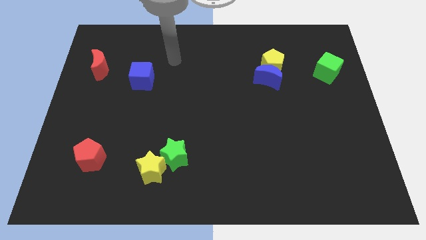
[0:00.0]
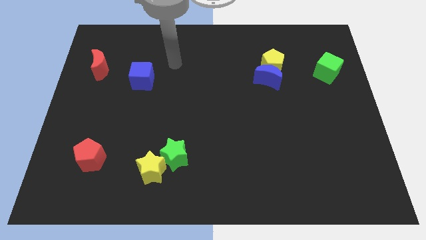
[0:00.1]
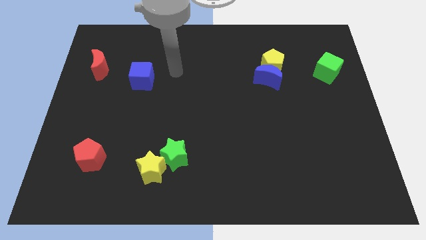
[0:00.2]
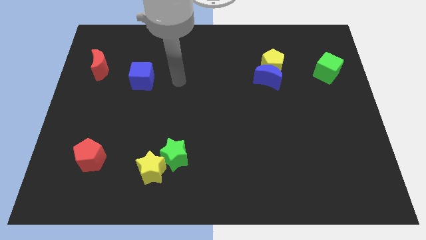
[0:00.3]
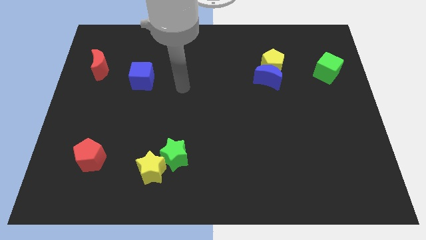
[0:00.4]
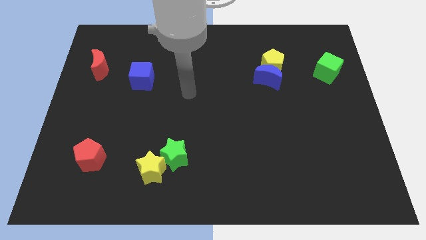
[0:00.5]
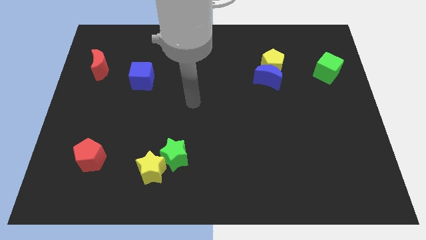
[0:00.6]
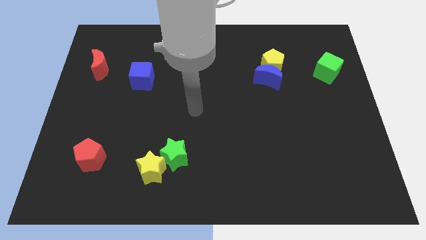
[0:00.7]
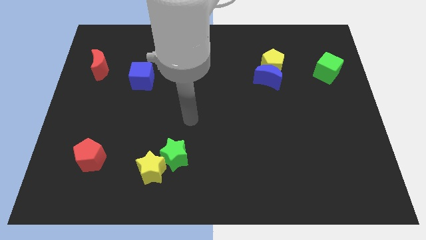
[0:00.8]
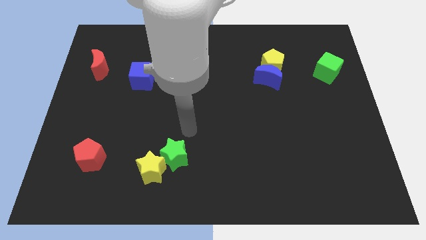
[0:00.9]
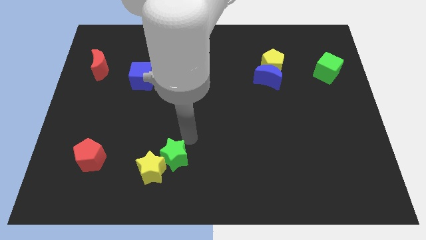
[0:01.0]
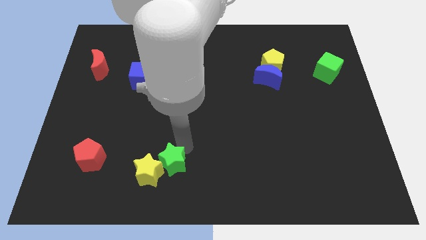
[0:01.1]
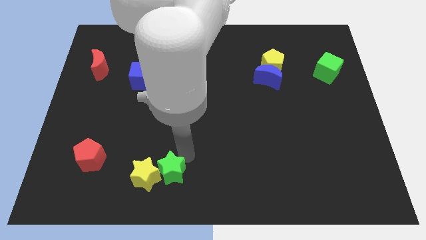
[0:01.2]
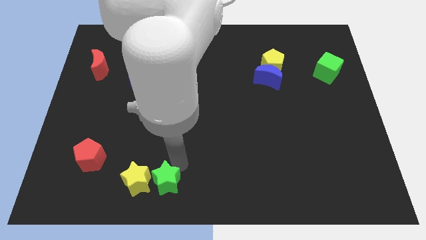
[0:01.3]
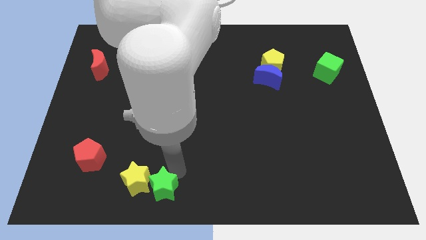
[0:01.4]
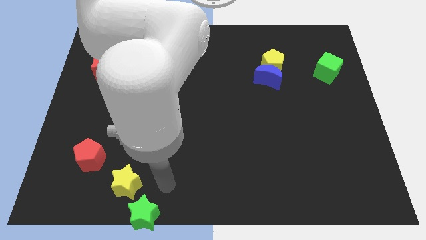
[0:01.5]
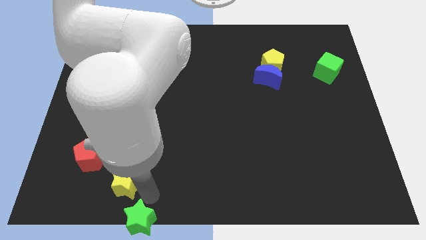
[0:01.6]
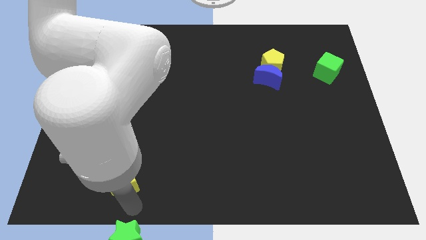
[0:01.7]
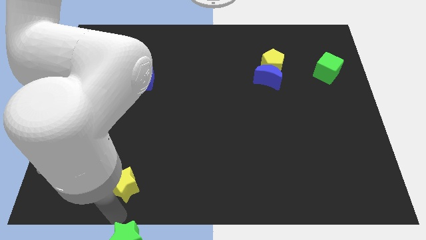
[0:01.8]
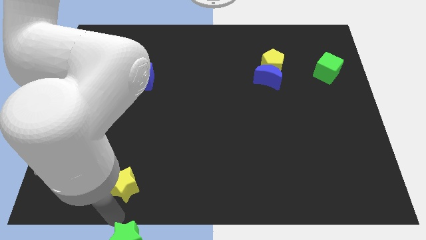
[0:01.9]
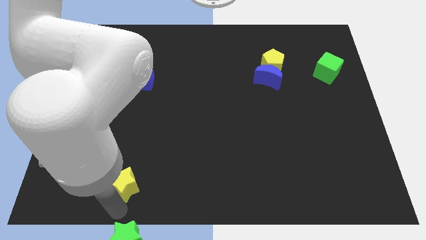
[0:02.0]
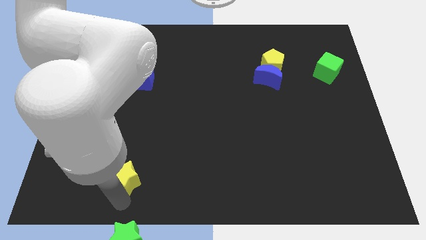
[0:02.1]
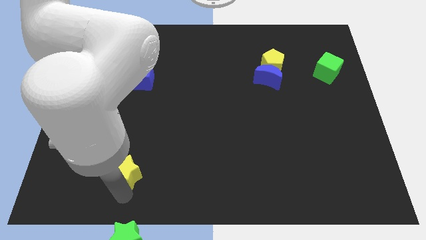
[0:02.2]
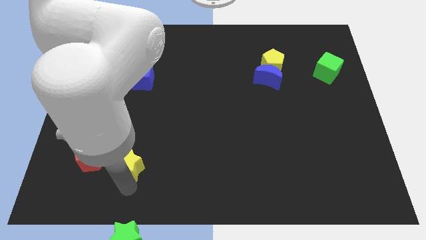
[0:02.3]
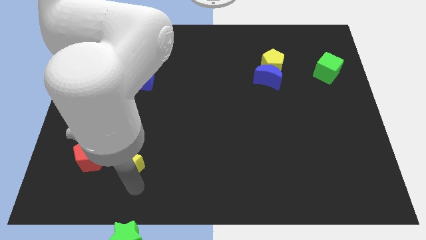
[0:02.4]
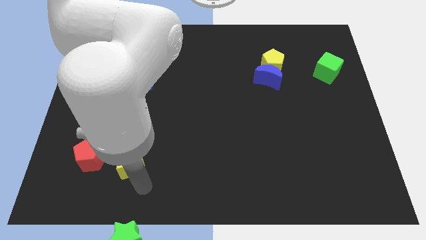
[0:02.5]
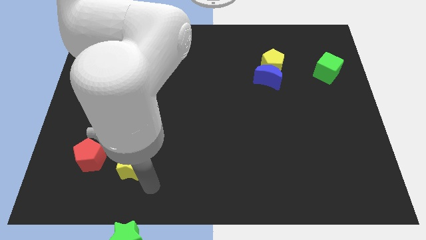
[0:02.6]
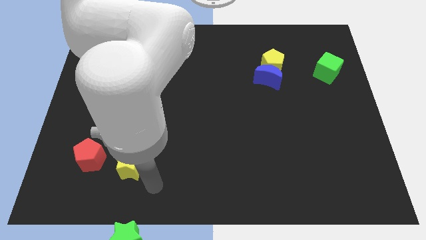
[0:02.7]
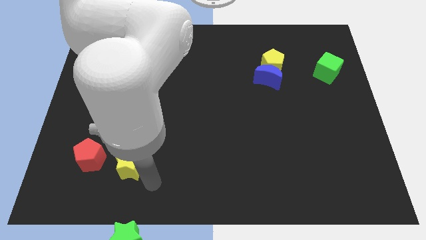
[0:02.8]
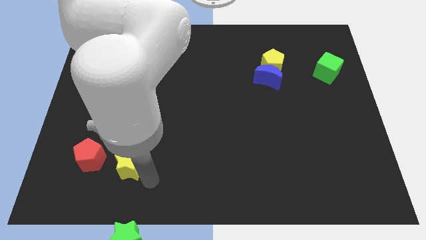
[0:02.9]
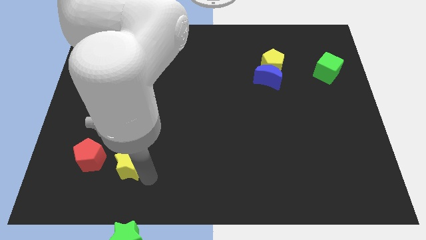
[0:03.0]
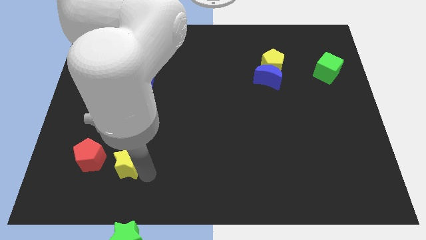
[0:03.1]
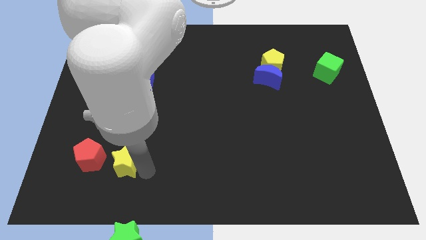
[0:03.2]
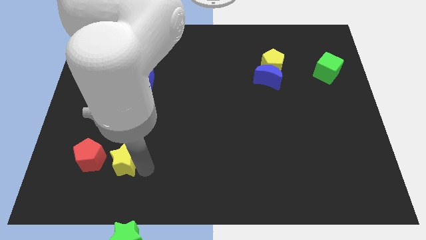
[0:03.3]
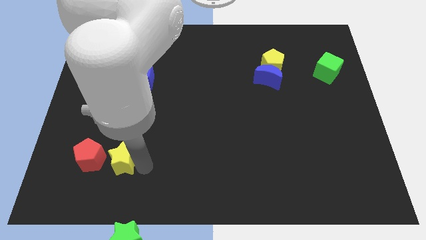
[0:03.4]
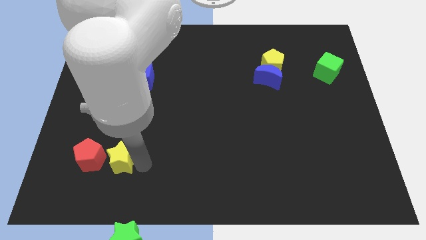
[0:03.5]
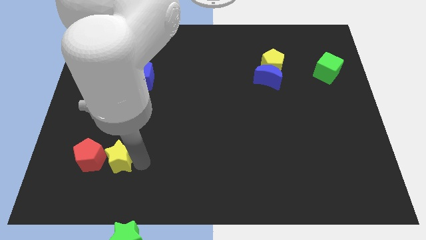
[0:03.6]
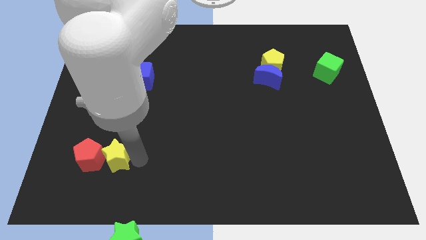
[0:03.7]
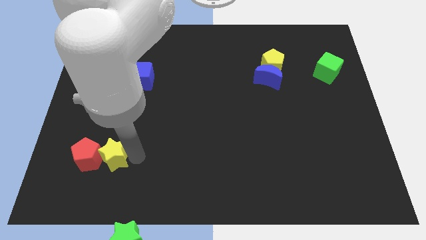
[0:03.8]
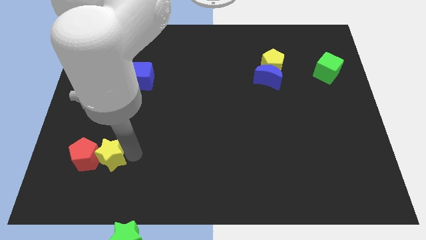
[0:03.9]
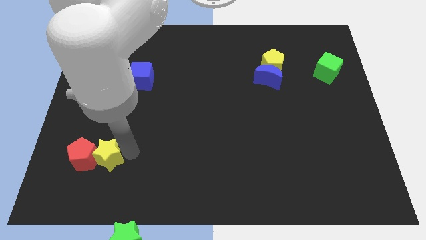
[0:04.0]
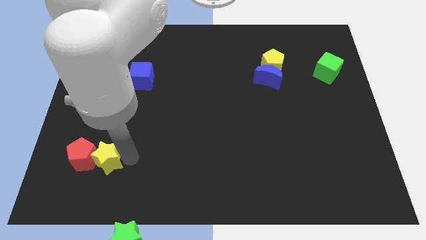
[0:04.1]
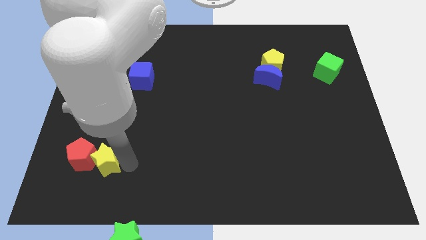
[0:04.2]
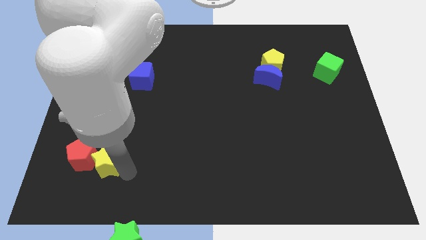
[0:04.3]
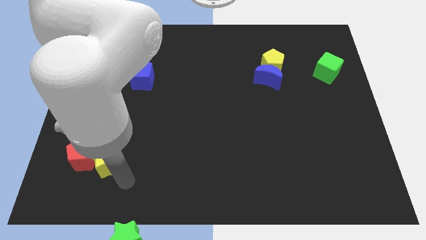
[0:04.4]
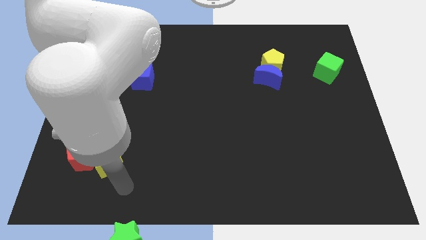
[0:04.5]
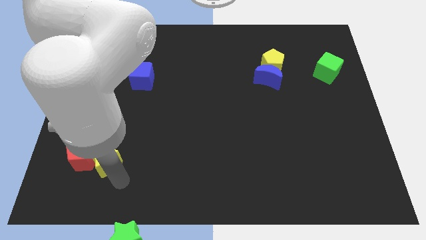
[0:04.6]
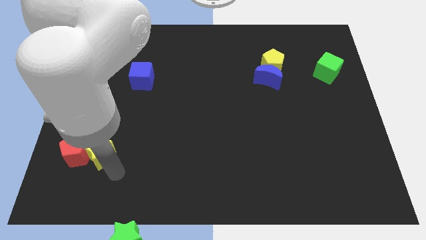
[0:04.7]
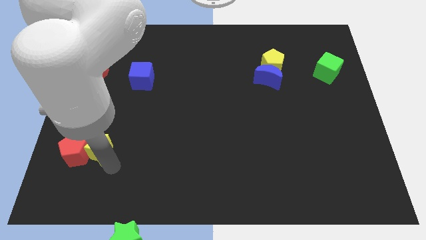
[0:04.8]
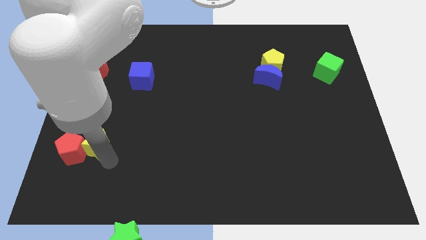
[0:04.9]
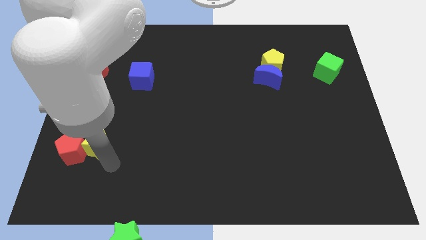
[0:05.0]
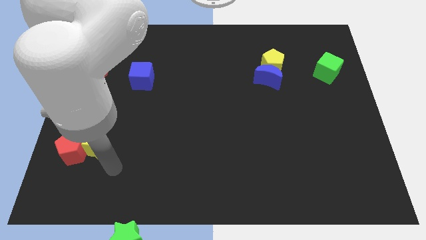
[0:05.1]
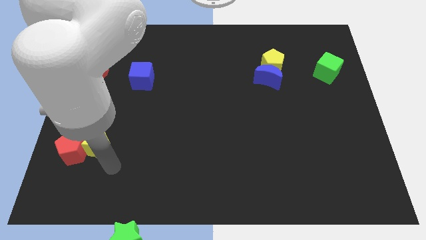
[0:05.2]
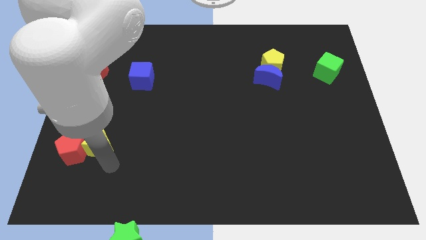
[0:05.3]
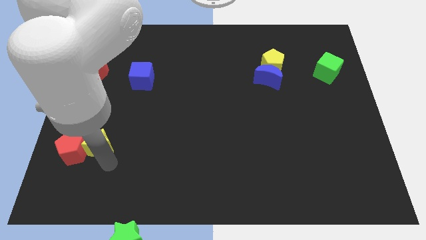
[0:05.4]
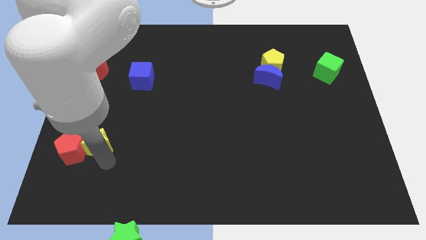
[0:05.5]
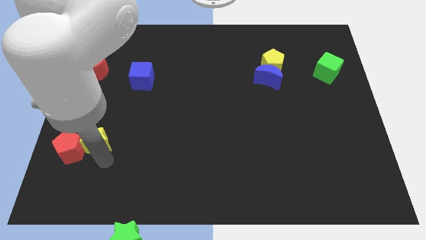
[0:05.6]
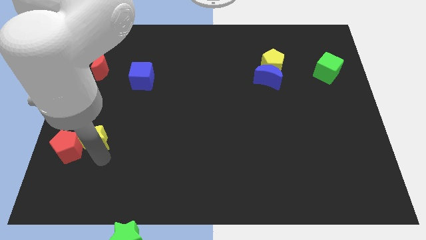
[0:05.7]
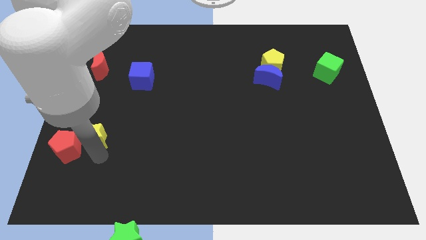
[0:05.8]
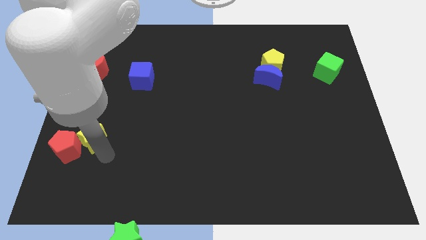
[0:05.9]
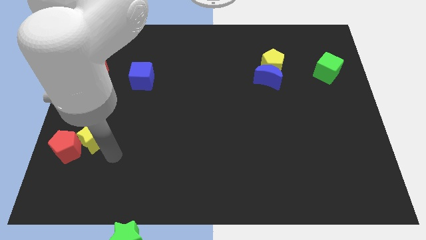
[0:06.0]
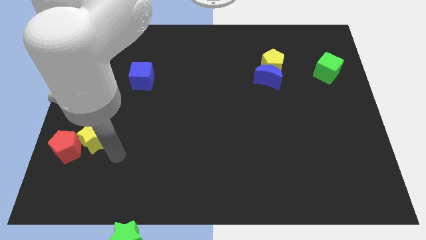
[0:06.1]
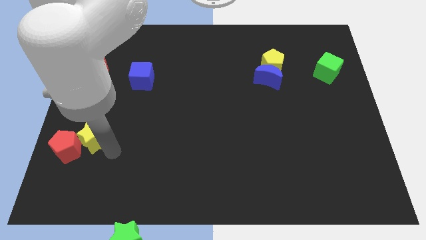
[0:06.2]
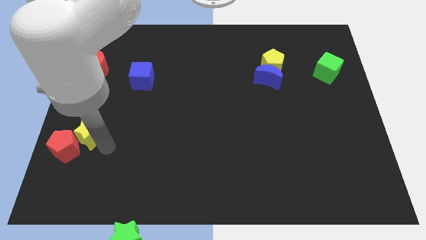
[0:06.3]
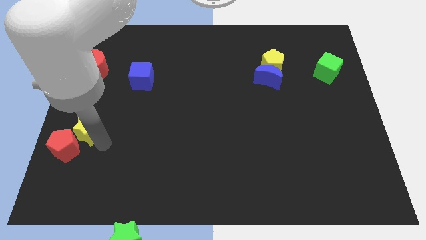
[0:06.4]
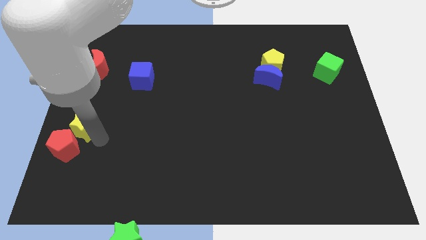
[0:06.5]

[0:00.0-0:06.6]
put the yellow star to the left side

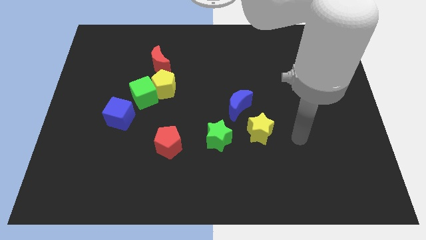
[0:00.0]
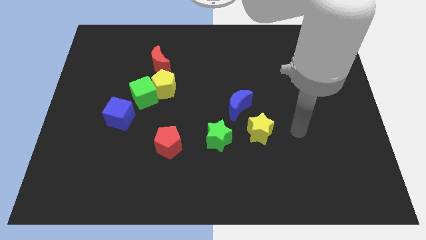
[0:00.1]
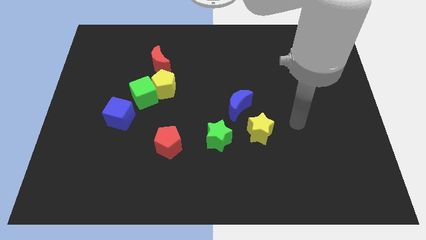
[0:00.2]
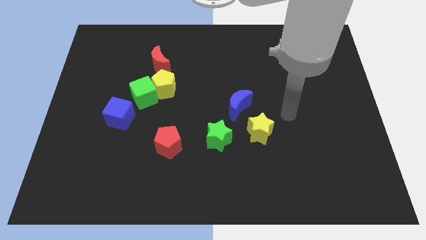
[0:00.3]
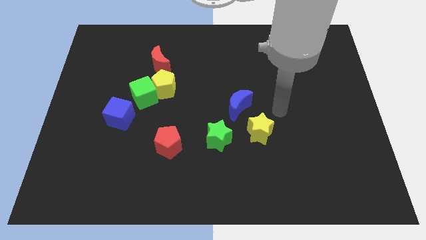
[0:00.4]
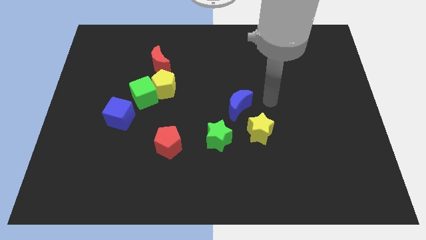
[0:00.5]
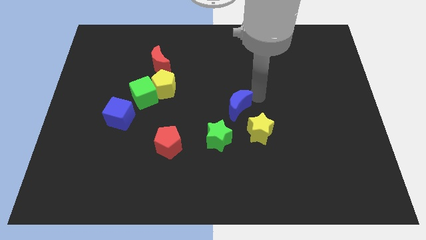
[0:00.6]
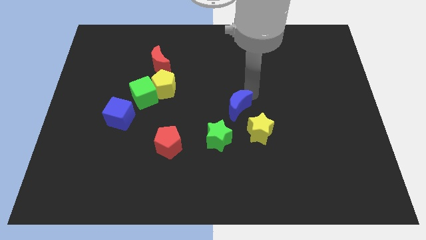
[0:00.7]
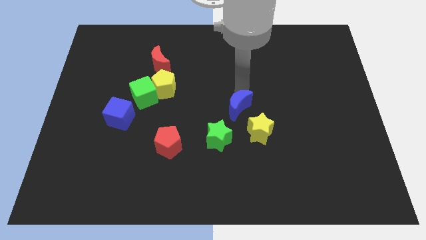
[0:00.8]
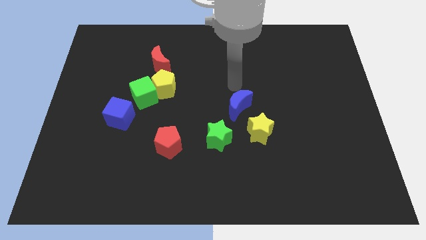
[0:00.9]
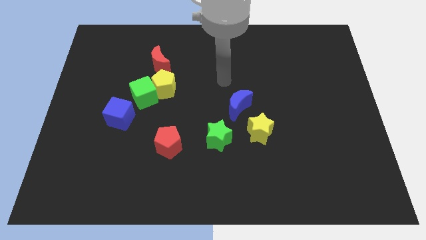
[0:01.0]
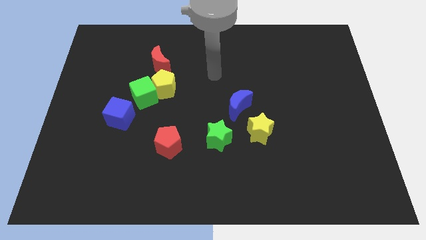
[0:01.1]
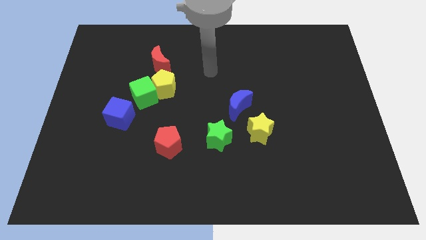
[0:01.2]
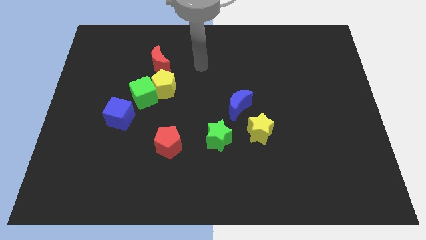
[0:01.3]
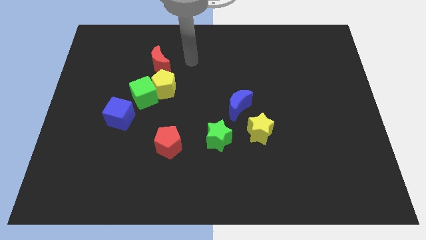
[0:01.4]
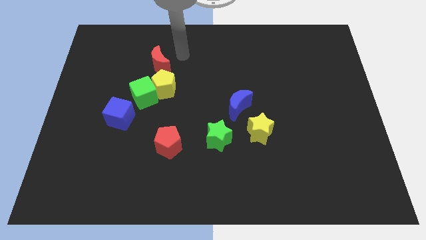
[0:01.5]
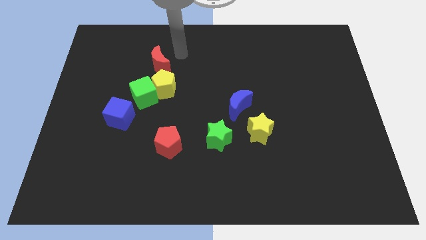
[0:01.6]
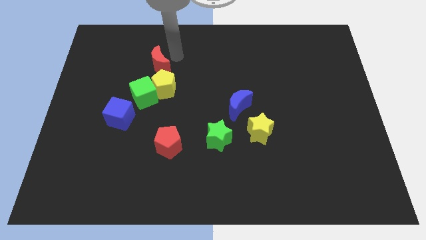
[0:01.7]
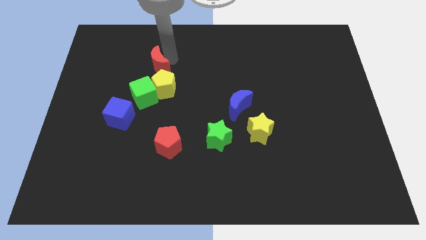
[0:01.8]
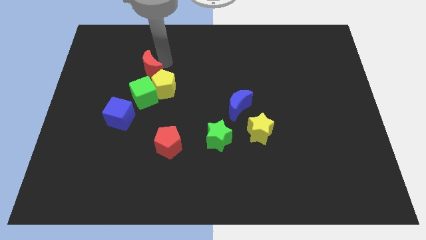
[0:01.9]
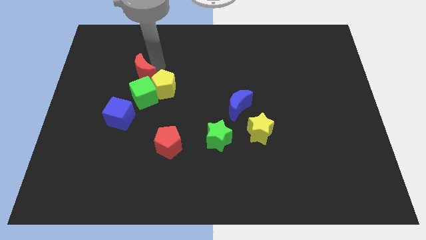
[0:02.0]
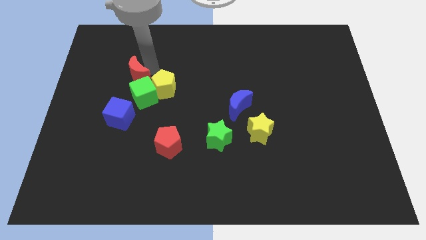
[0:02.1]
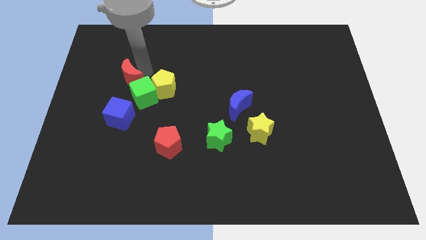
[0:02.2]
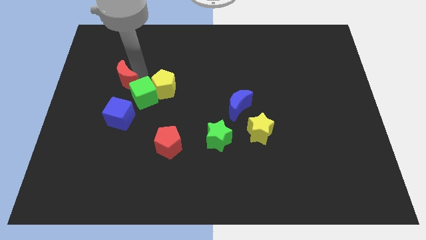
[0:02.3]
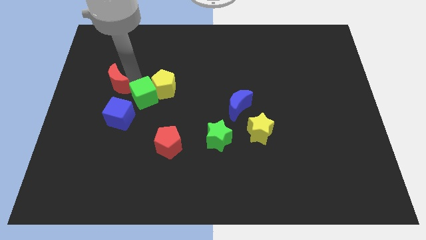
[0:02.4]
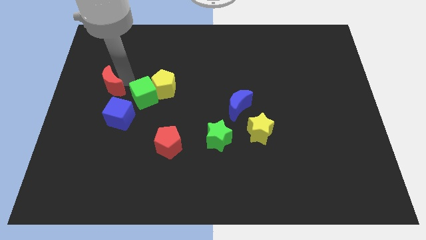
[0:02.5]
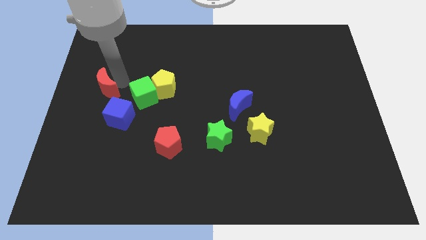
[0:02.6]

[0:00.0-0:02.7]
push the red moon to the left side
